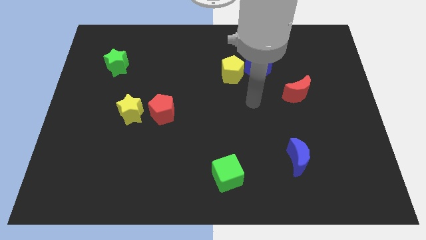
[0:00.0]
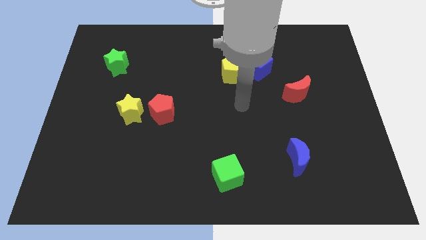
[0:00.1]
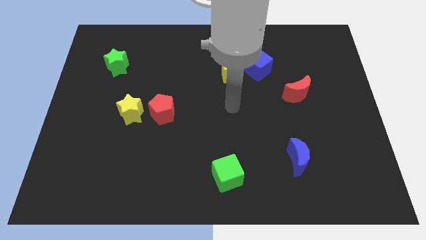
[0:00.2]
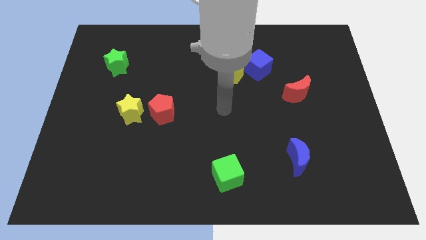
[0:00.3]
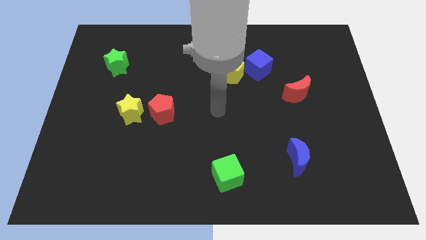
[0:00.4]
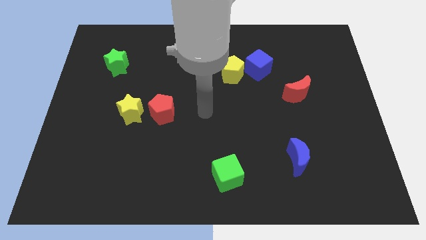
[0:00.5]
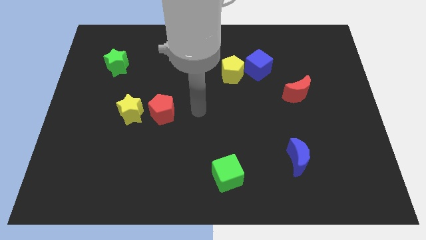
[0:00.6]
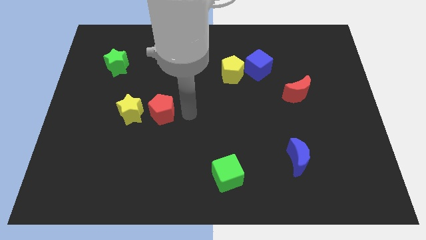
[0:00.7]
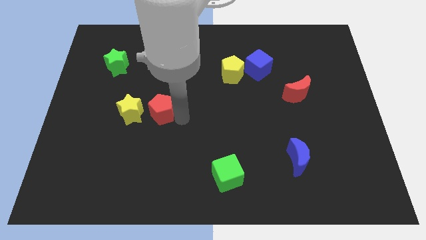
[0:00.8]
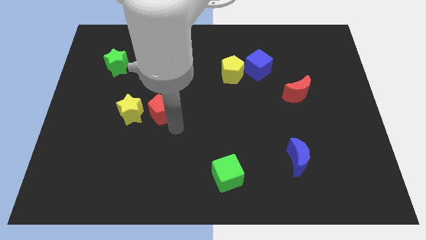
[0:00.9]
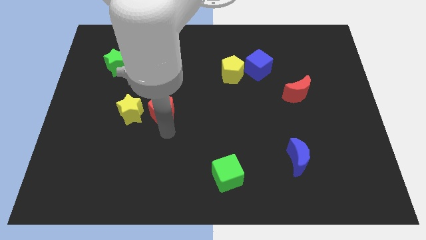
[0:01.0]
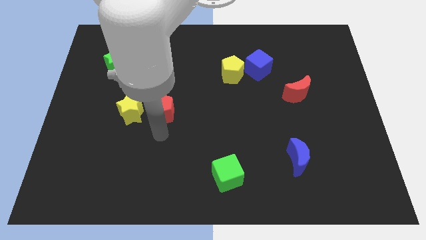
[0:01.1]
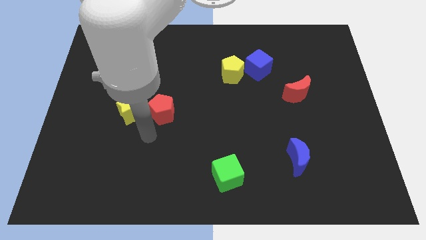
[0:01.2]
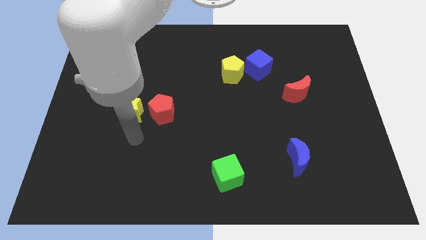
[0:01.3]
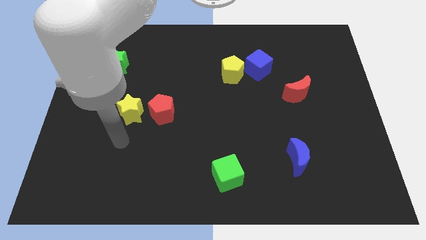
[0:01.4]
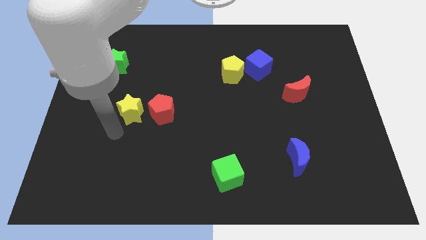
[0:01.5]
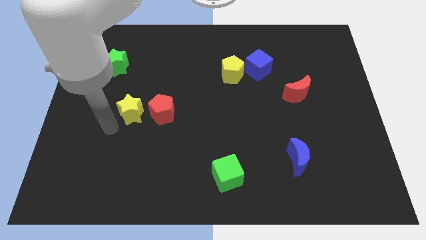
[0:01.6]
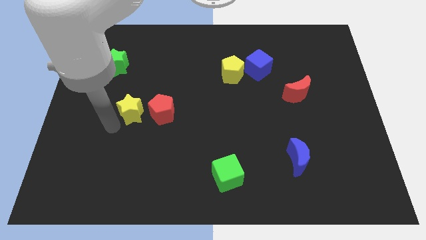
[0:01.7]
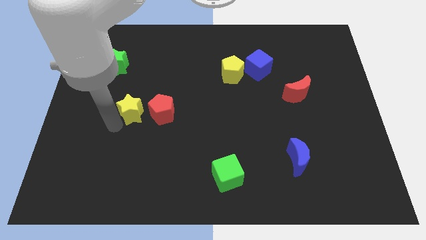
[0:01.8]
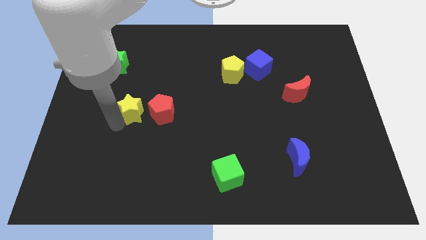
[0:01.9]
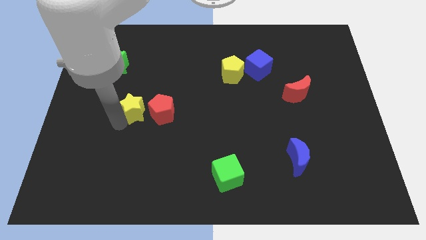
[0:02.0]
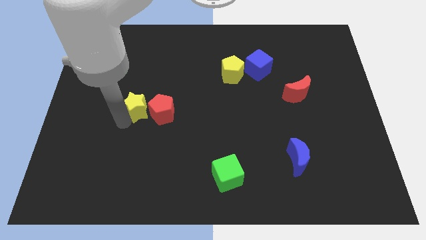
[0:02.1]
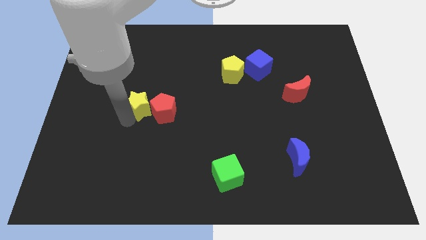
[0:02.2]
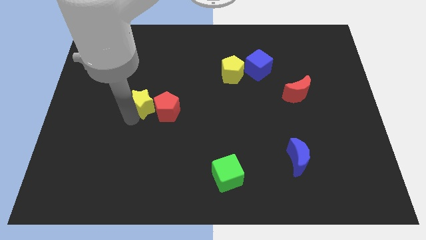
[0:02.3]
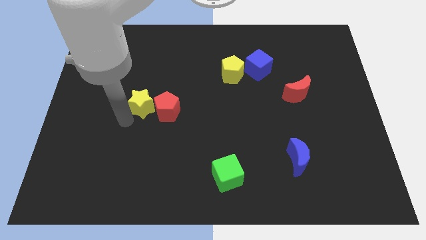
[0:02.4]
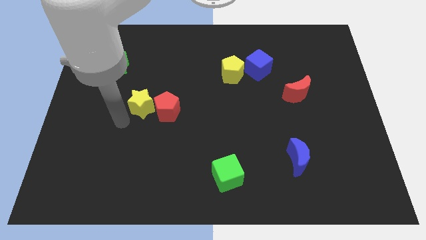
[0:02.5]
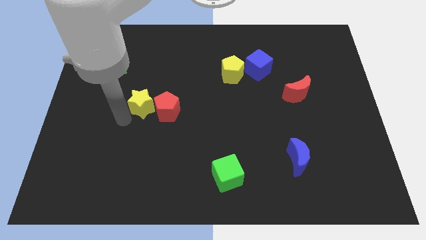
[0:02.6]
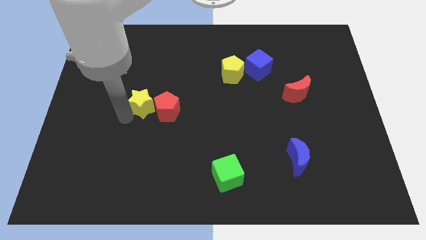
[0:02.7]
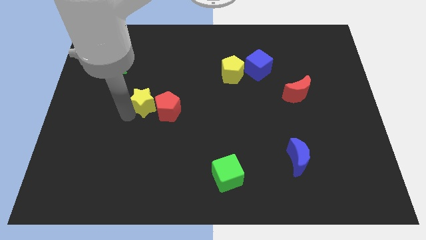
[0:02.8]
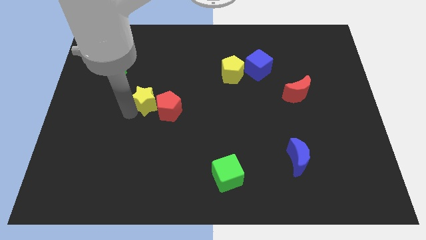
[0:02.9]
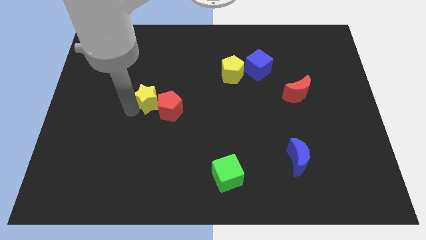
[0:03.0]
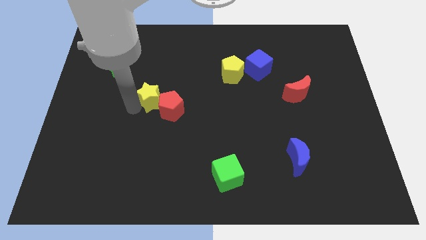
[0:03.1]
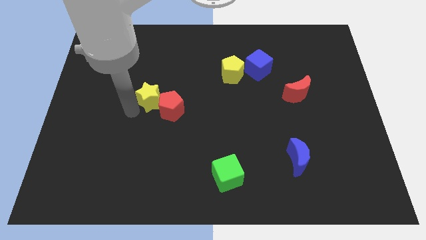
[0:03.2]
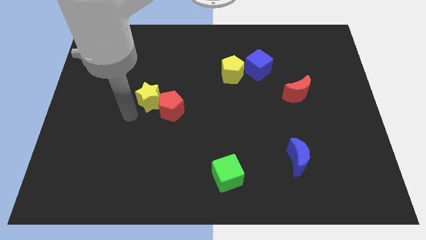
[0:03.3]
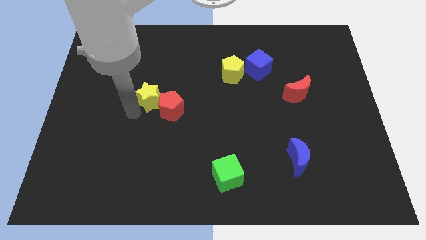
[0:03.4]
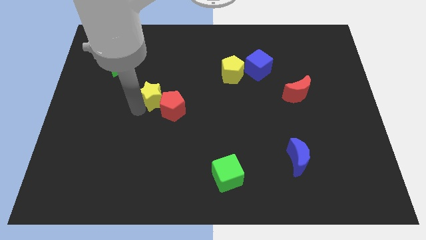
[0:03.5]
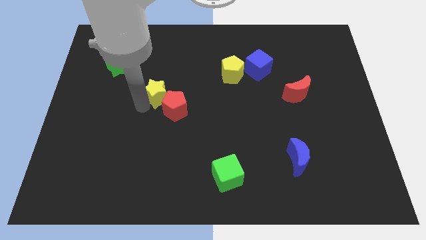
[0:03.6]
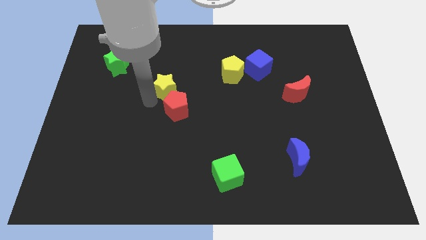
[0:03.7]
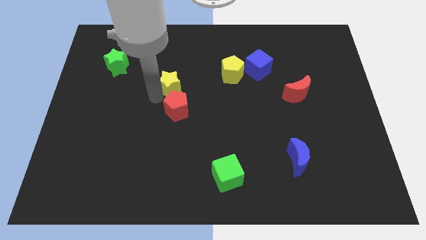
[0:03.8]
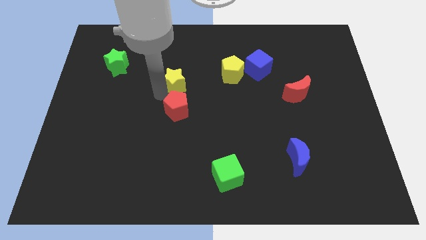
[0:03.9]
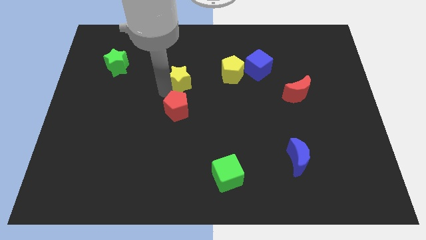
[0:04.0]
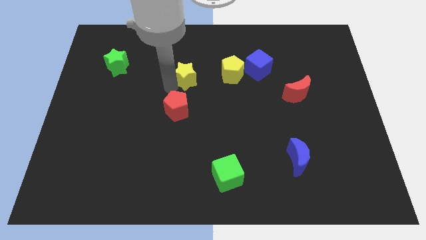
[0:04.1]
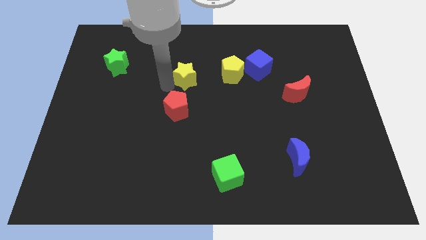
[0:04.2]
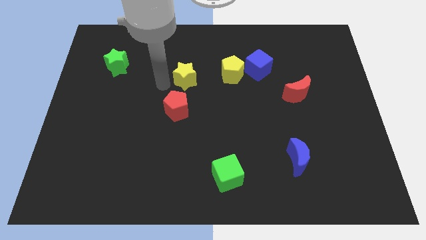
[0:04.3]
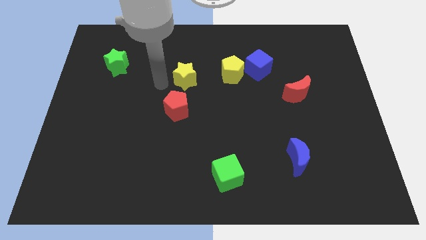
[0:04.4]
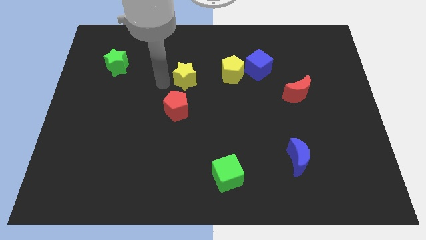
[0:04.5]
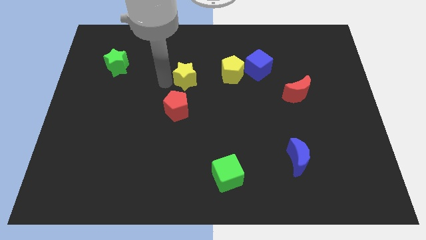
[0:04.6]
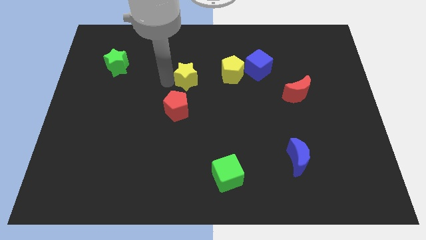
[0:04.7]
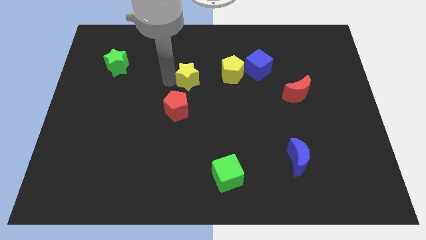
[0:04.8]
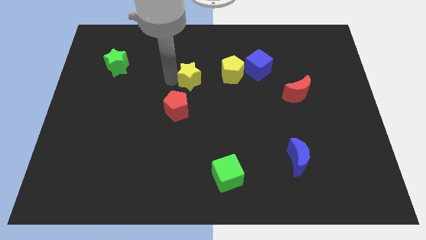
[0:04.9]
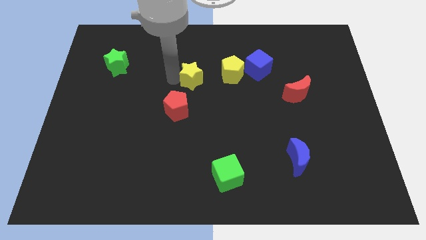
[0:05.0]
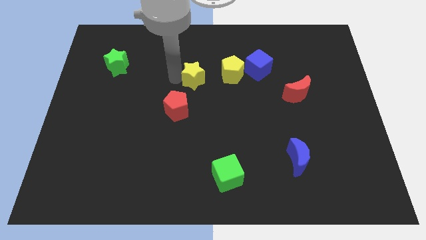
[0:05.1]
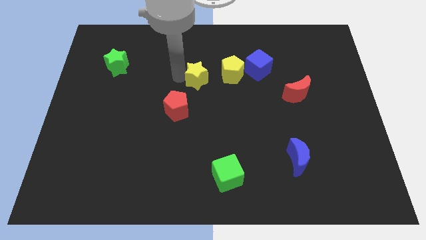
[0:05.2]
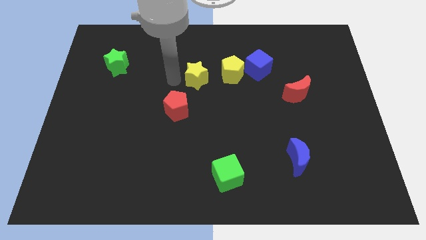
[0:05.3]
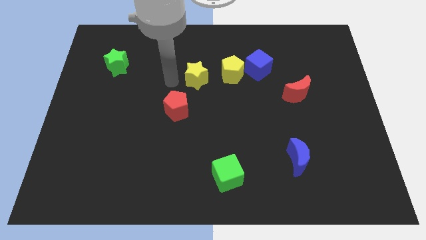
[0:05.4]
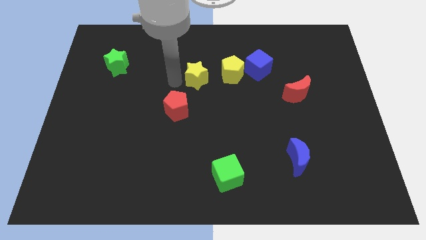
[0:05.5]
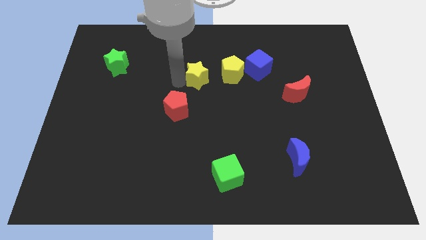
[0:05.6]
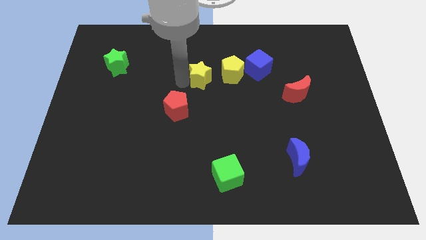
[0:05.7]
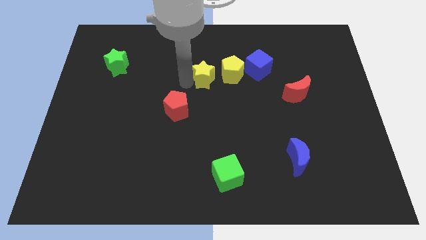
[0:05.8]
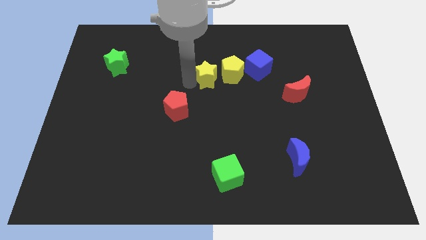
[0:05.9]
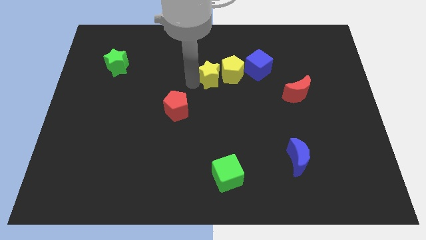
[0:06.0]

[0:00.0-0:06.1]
move the yellow star close to the yellow pentagon
